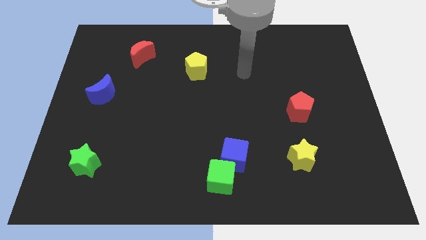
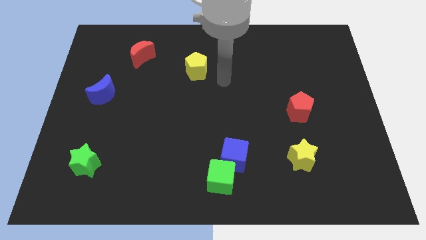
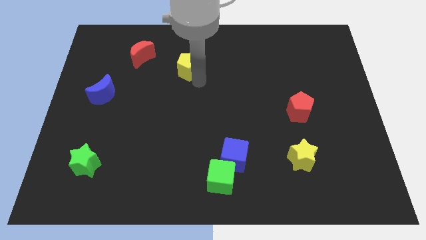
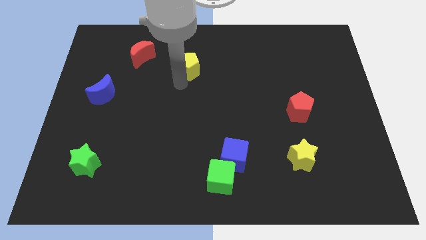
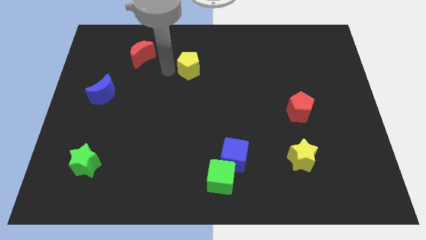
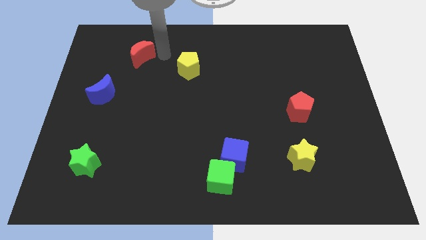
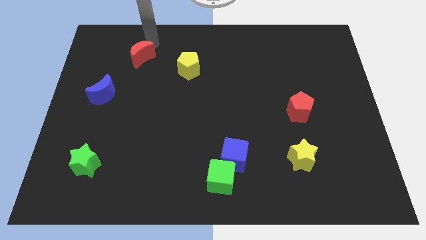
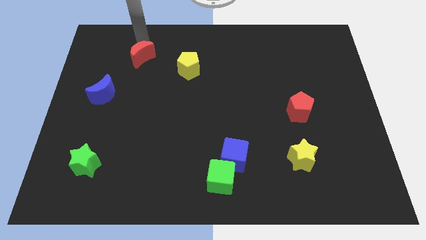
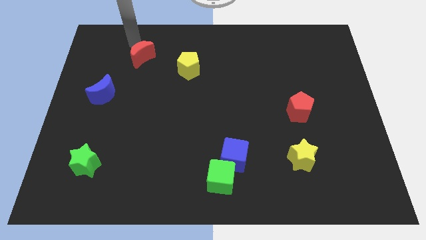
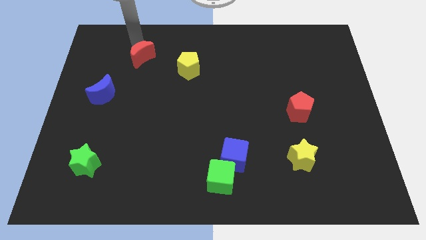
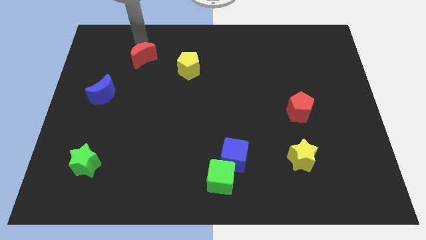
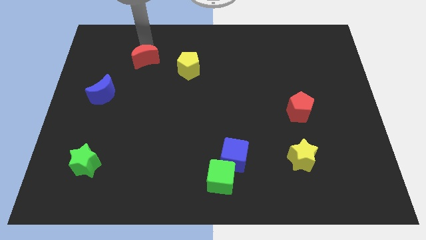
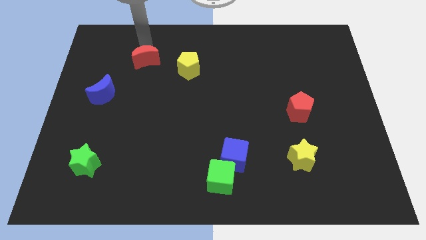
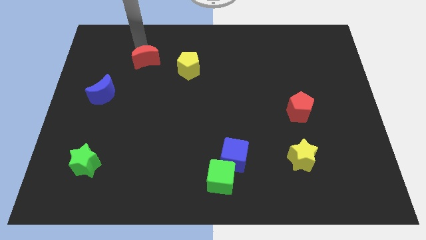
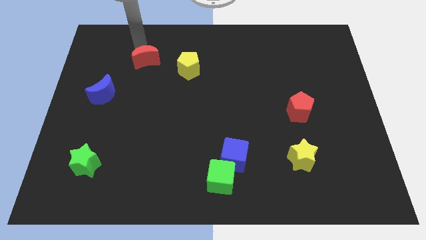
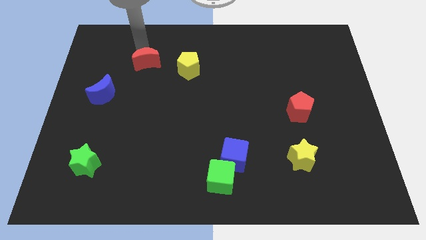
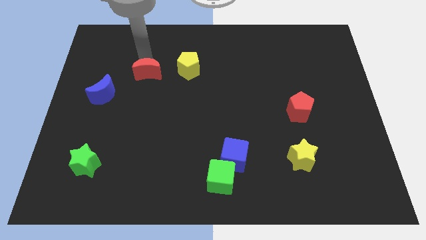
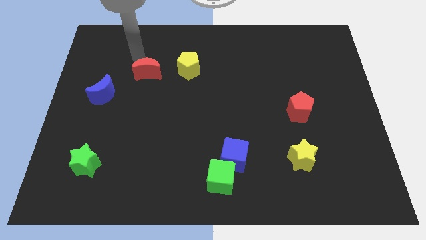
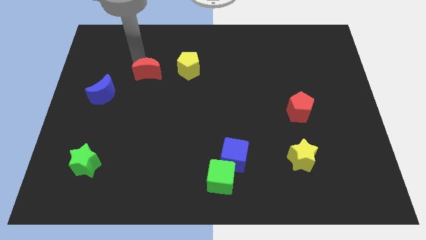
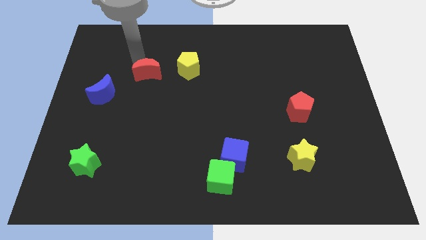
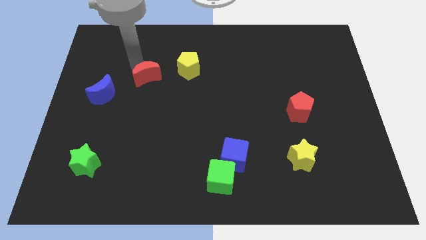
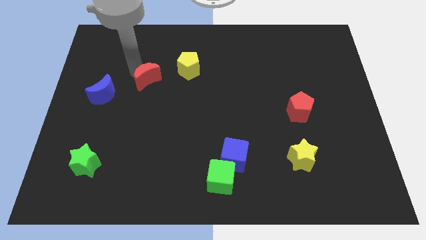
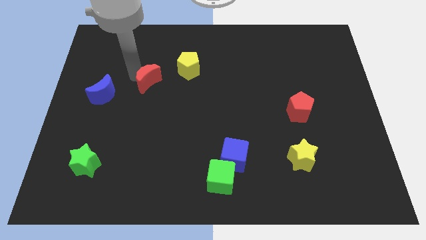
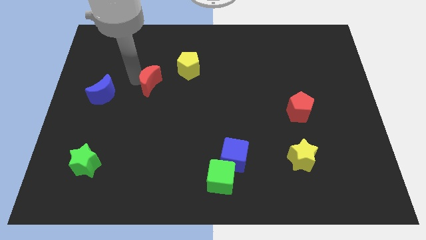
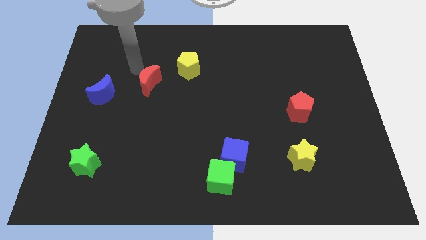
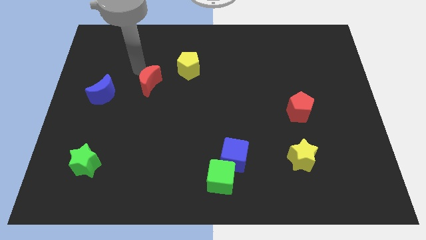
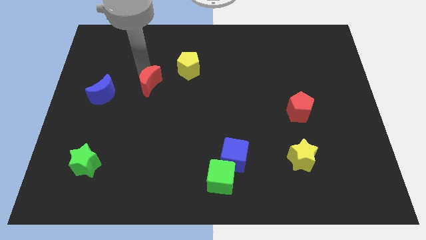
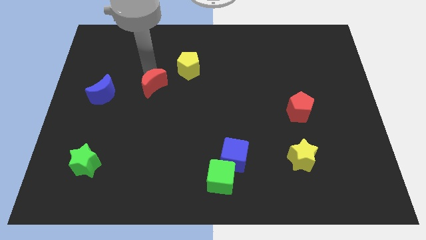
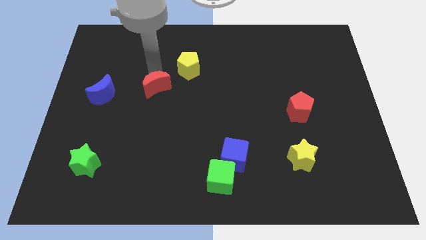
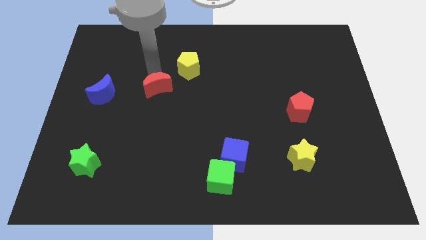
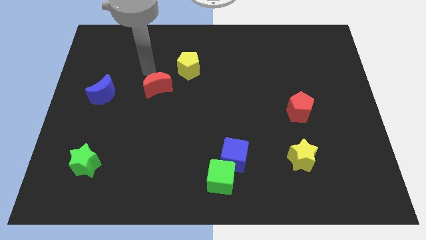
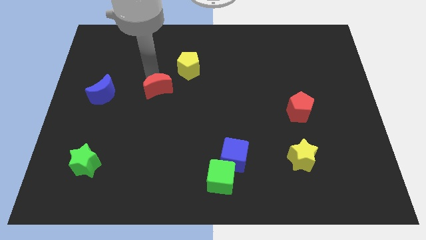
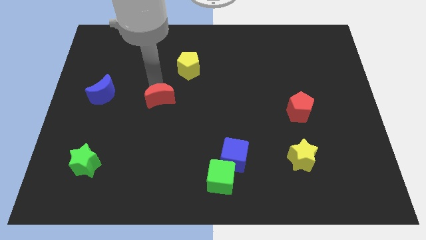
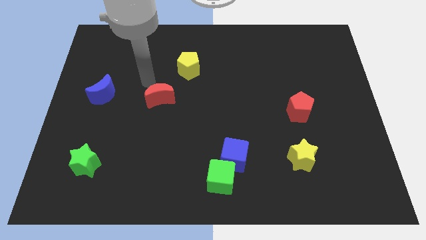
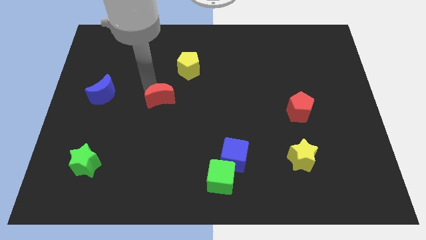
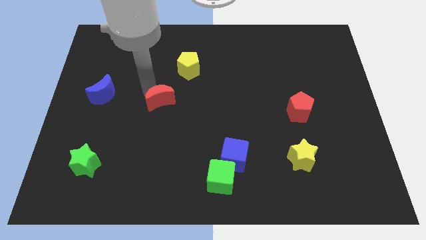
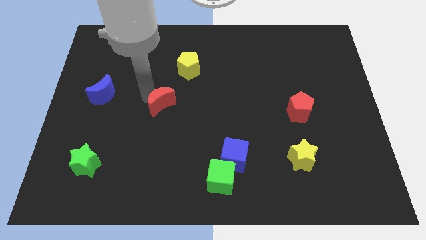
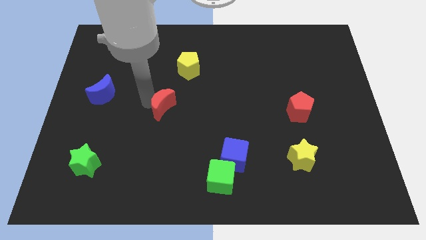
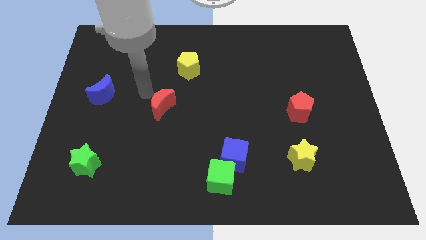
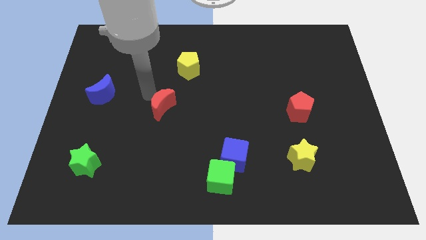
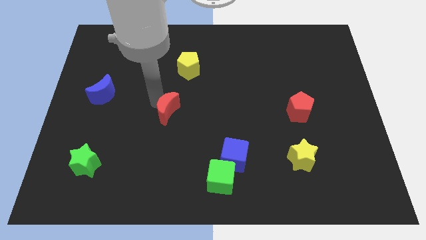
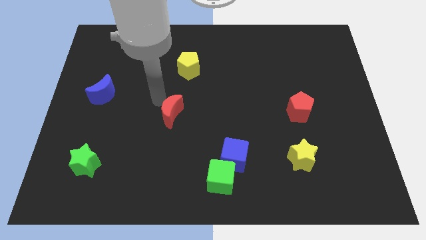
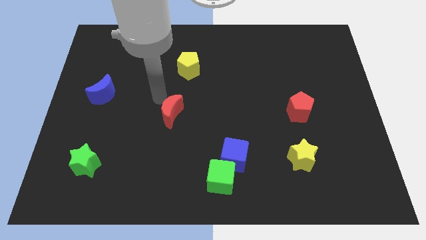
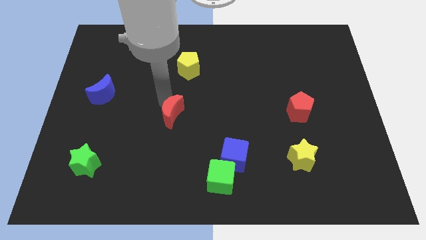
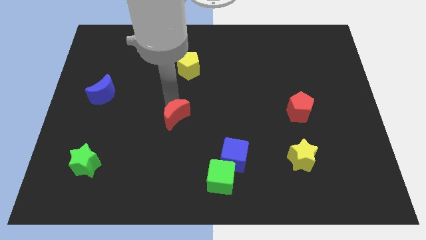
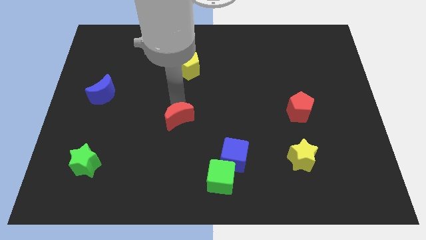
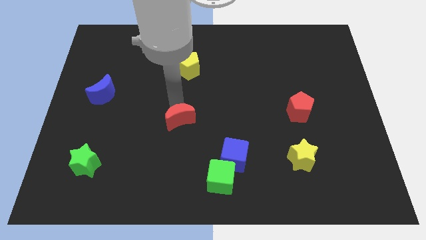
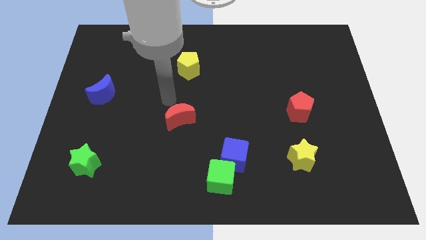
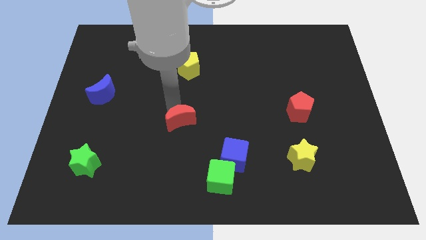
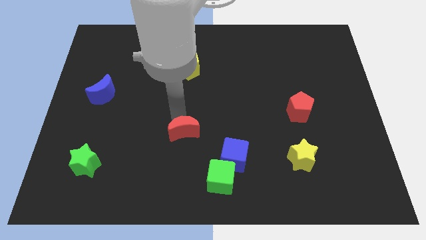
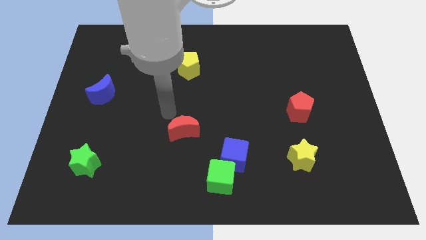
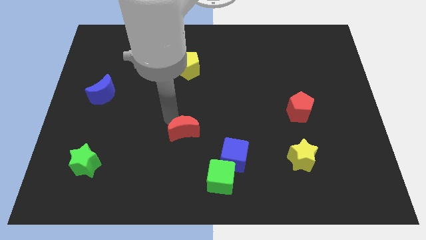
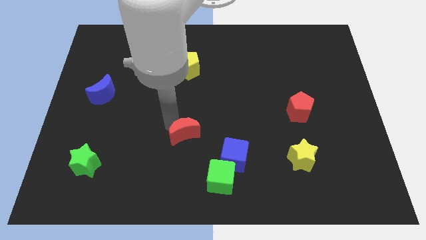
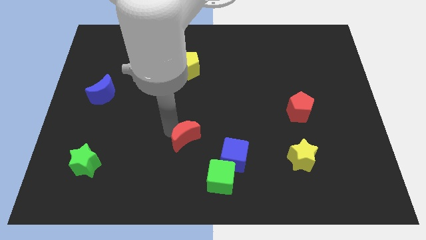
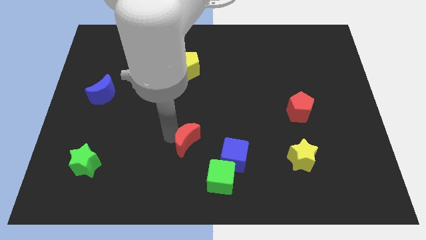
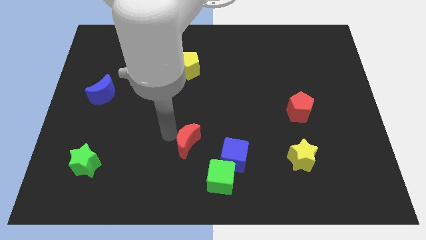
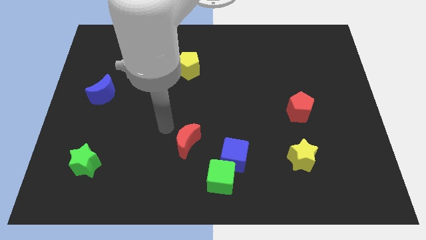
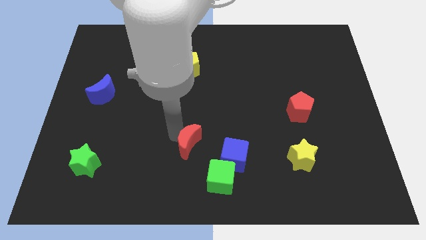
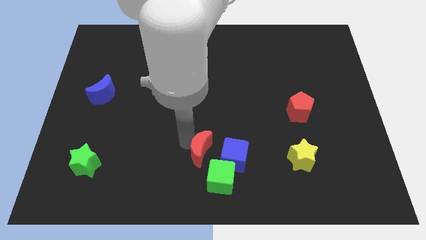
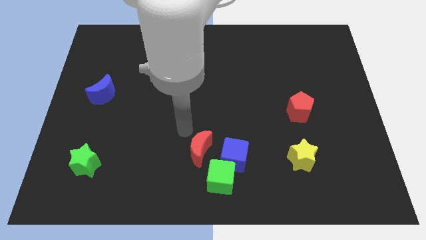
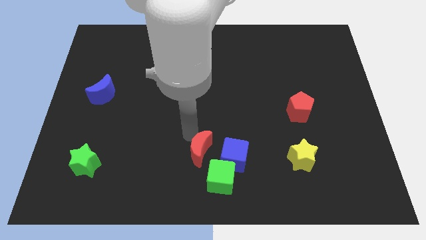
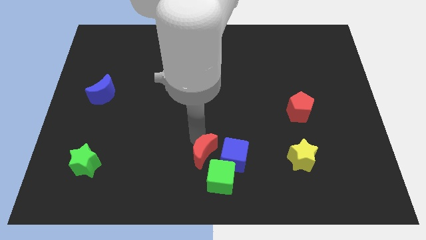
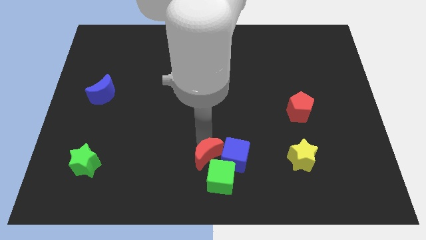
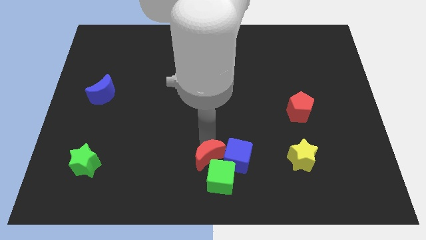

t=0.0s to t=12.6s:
slide the red moon next to the green cube

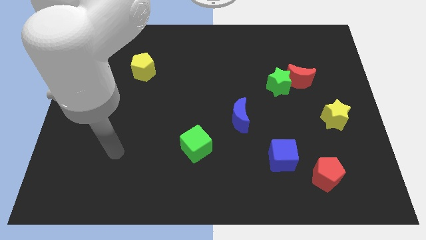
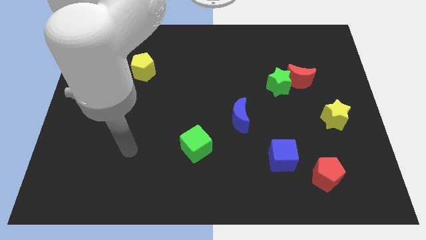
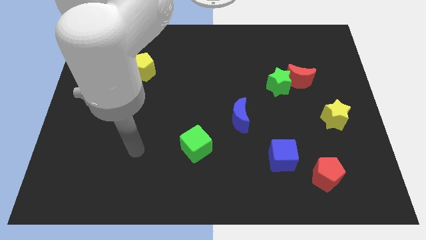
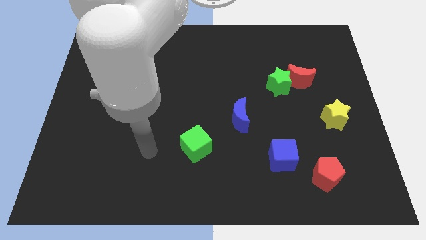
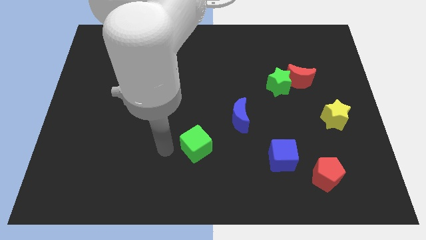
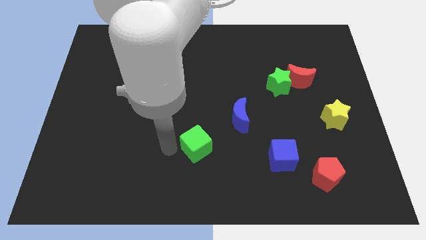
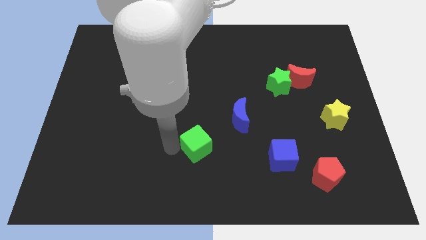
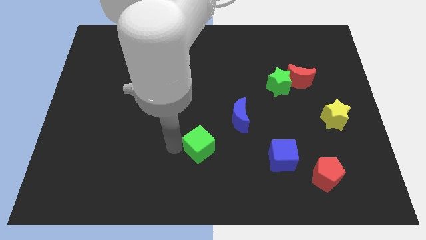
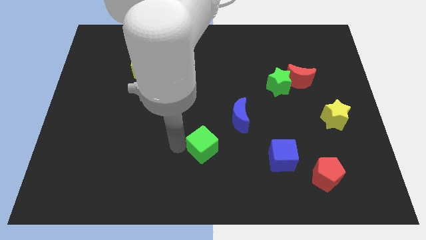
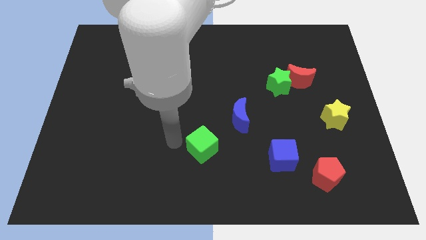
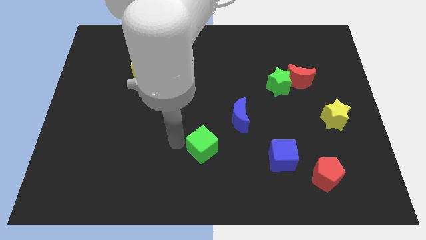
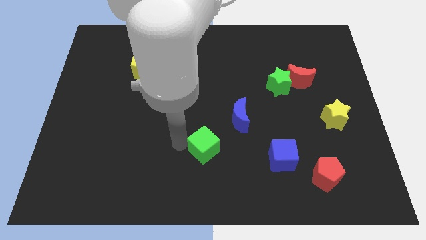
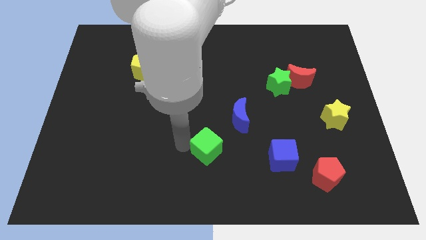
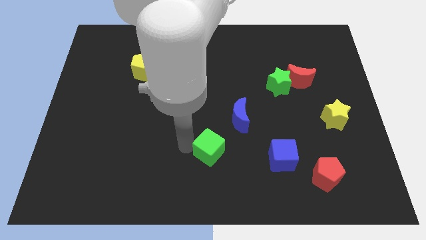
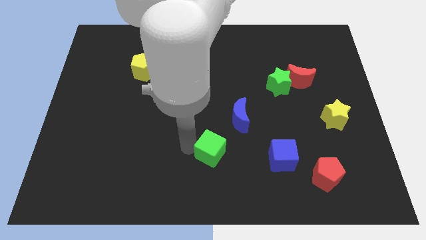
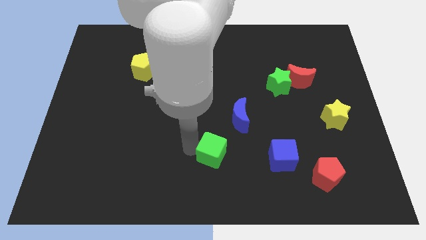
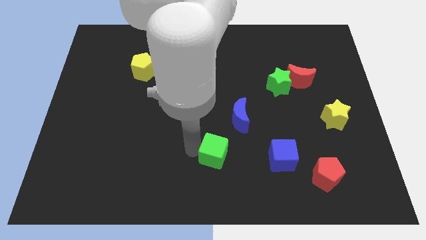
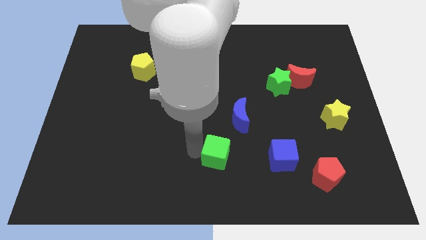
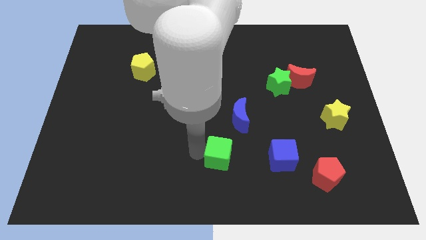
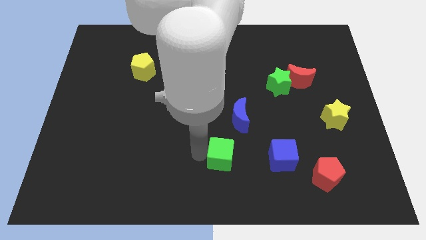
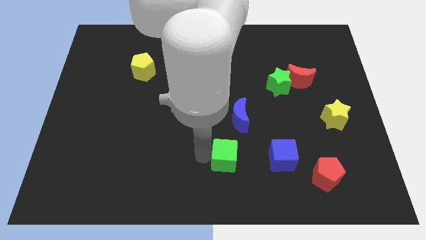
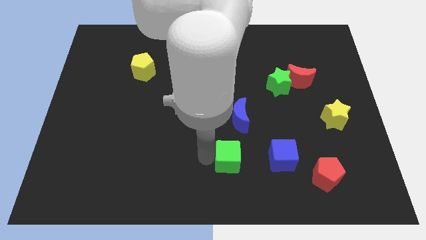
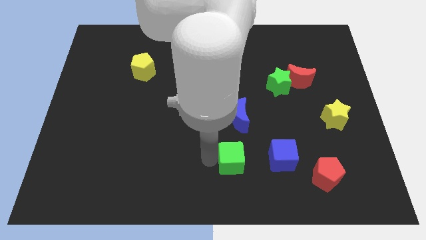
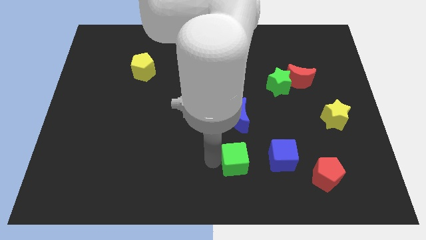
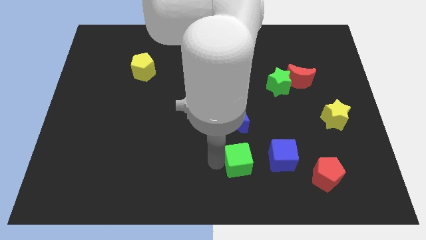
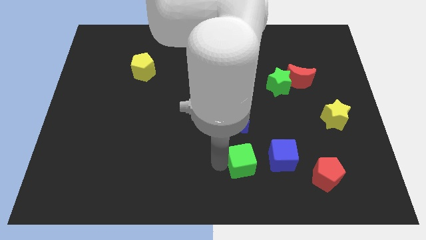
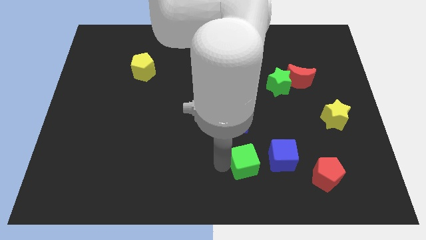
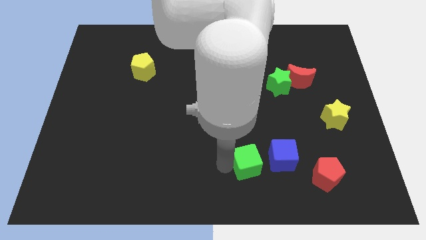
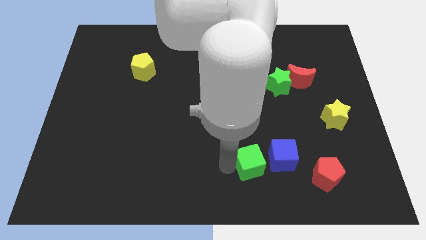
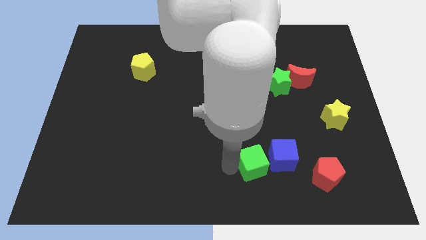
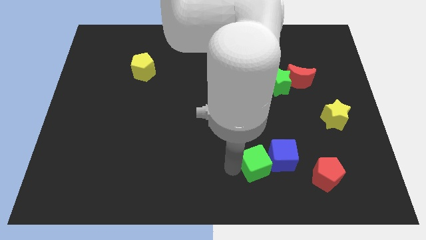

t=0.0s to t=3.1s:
slide the green cube next to the blue cube
